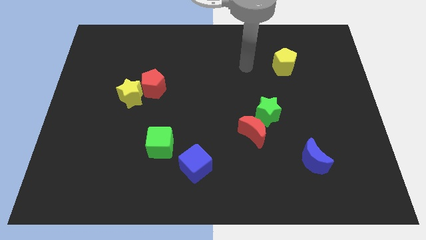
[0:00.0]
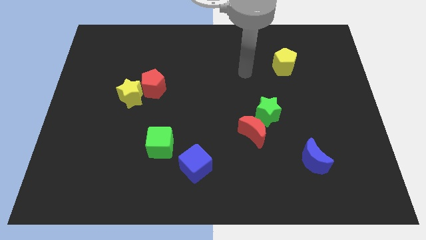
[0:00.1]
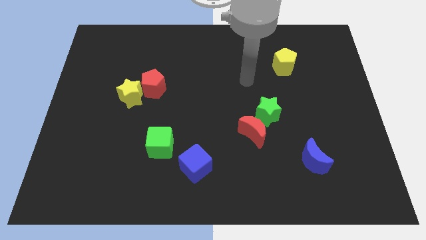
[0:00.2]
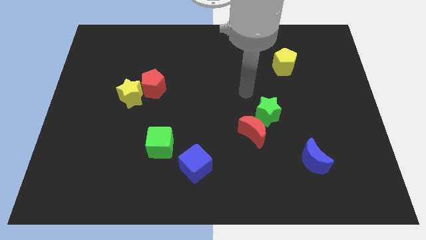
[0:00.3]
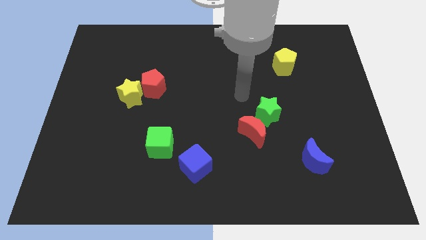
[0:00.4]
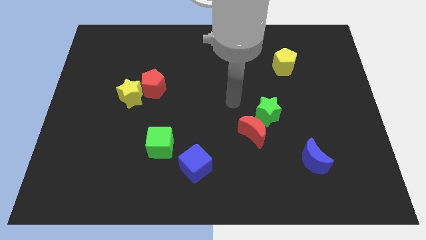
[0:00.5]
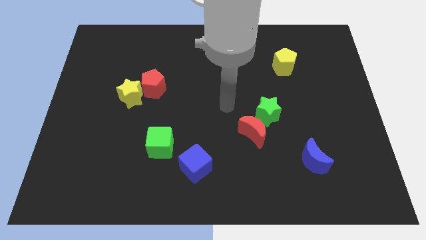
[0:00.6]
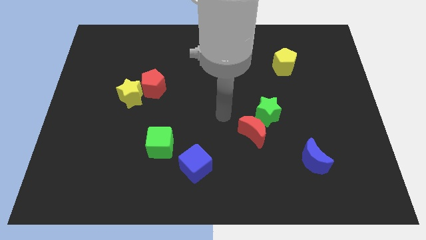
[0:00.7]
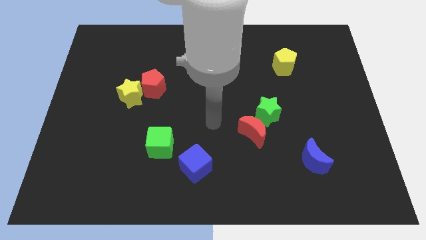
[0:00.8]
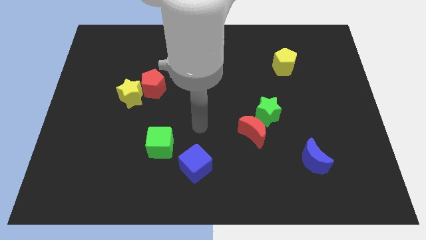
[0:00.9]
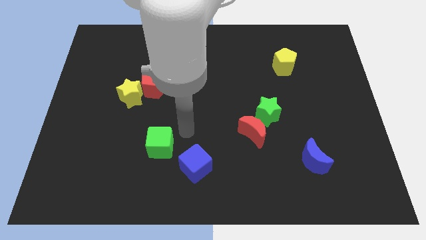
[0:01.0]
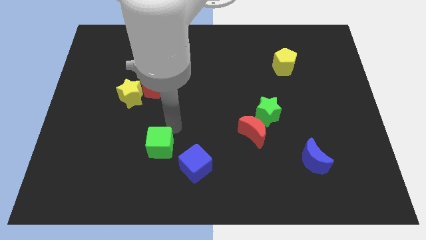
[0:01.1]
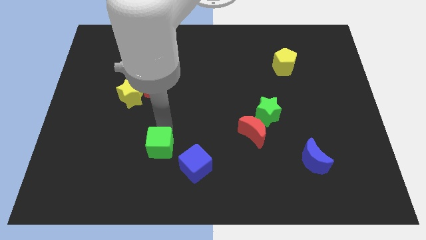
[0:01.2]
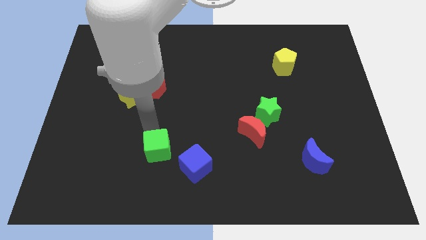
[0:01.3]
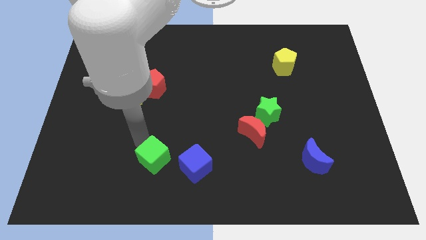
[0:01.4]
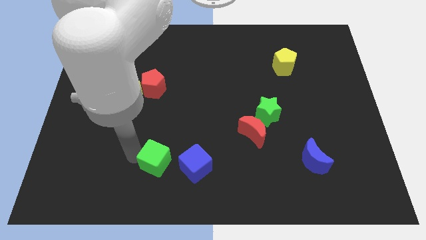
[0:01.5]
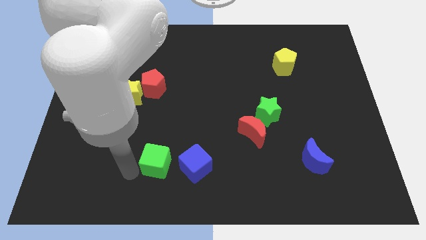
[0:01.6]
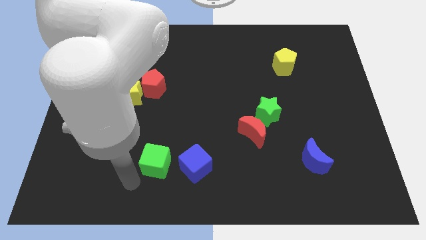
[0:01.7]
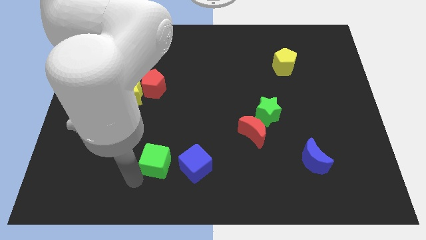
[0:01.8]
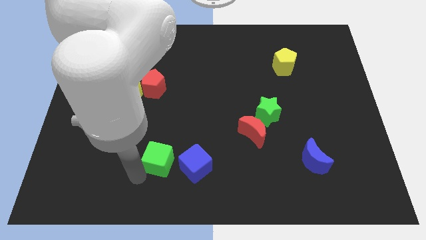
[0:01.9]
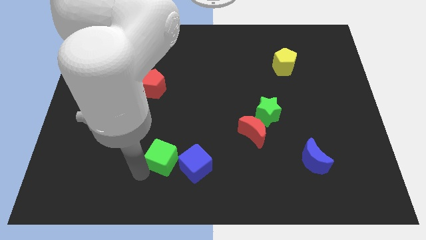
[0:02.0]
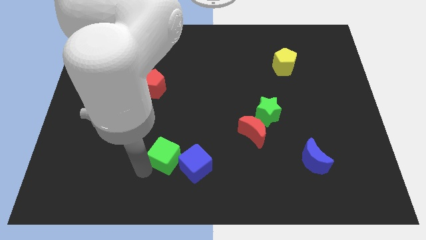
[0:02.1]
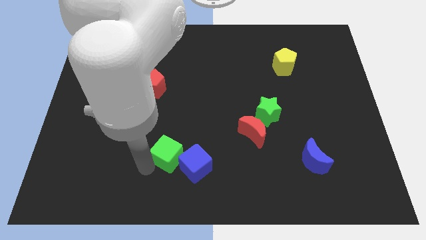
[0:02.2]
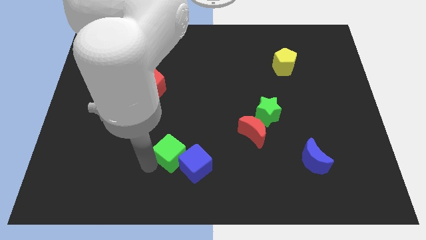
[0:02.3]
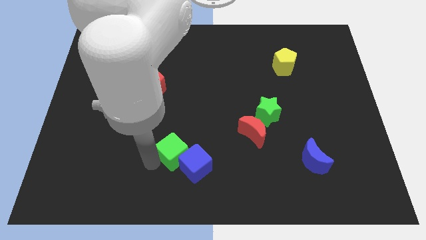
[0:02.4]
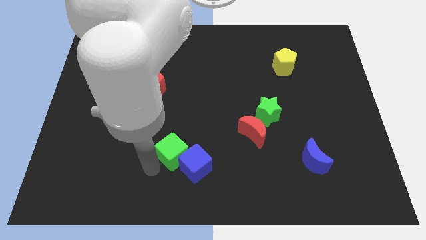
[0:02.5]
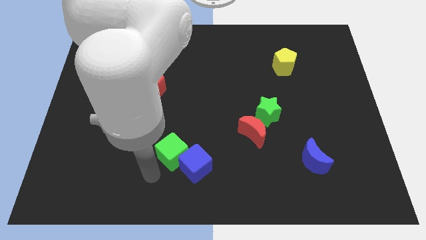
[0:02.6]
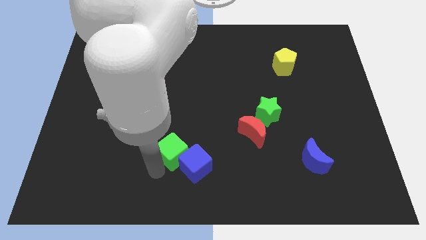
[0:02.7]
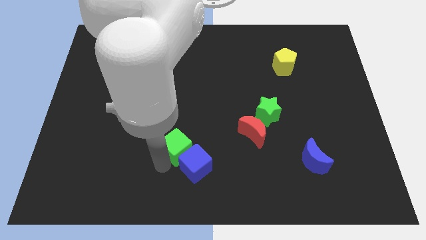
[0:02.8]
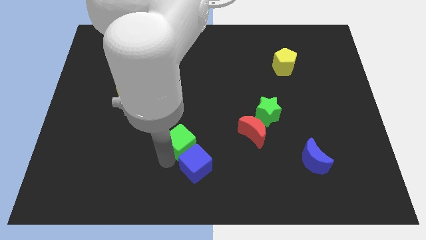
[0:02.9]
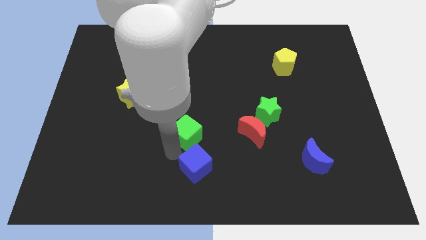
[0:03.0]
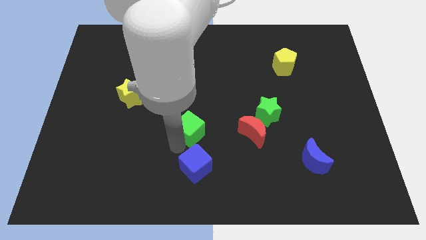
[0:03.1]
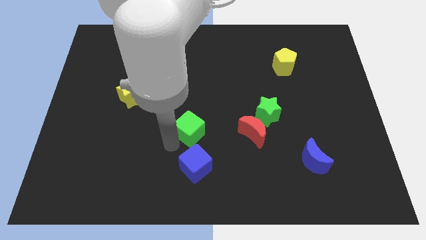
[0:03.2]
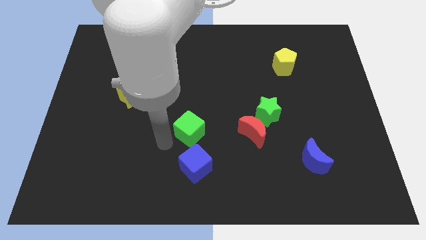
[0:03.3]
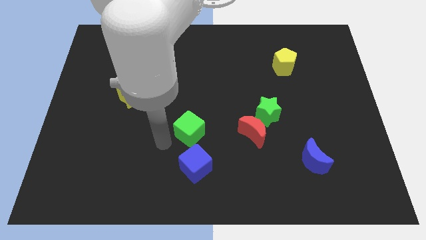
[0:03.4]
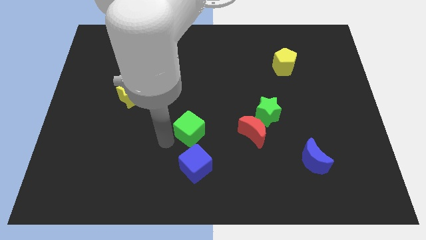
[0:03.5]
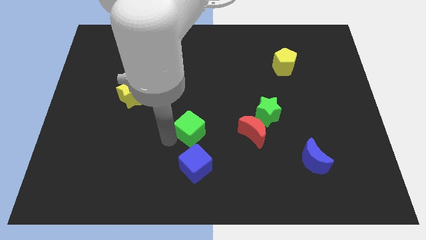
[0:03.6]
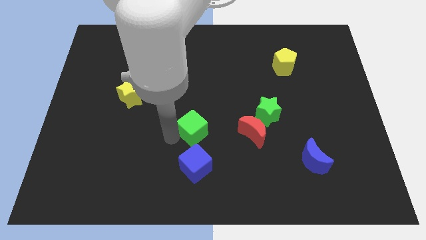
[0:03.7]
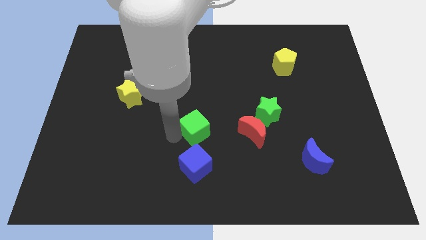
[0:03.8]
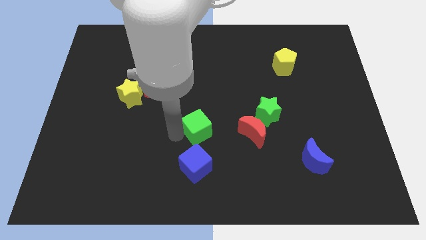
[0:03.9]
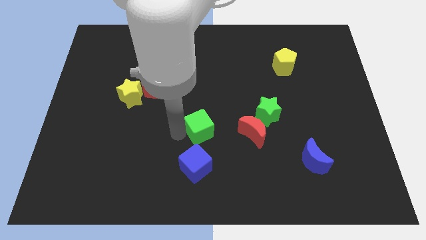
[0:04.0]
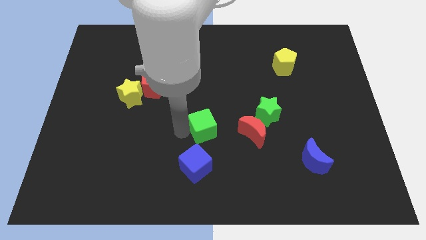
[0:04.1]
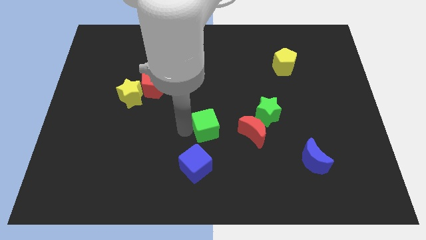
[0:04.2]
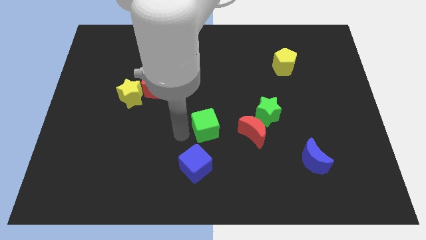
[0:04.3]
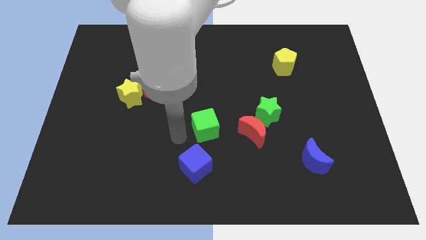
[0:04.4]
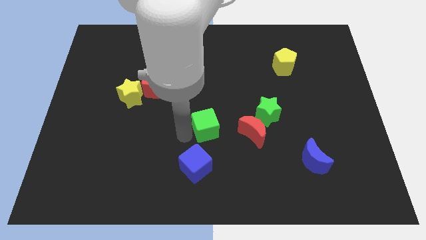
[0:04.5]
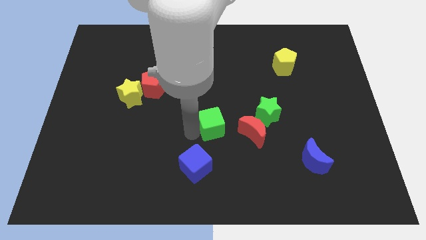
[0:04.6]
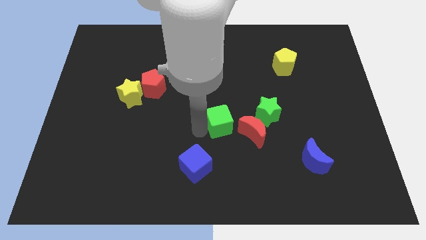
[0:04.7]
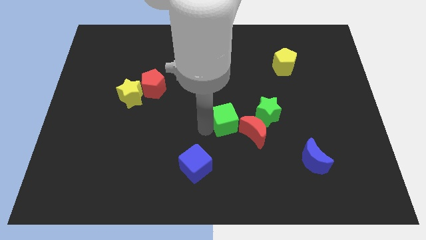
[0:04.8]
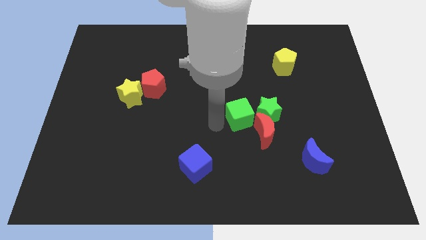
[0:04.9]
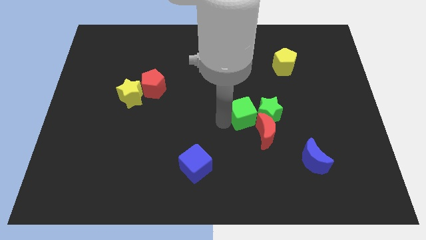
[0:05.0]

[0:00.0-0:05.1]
put the green cube close to the green star

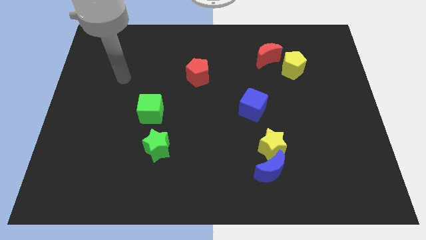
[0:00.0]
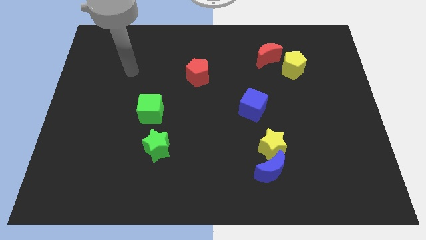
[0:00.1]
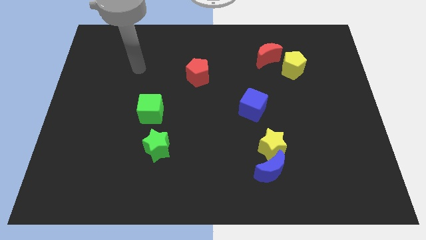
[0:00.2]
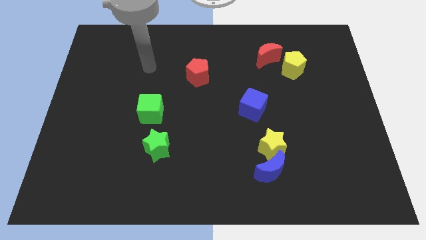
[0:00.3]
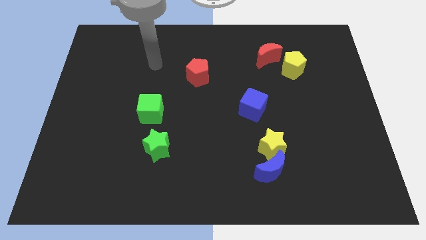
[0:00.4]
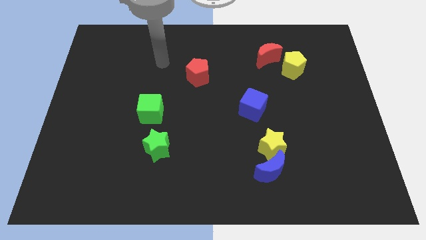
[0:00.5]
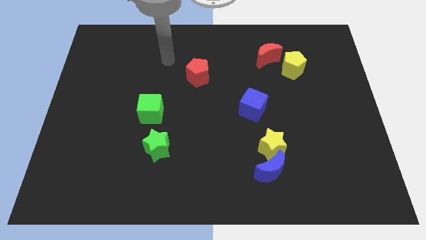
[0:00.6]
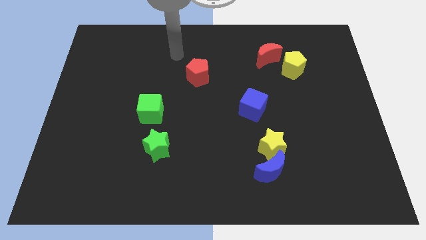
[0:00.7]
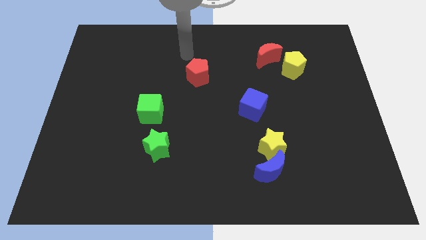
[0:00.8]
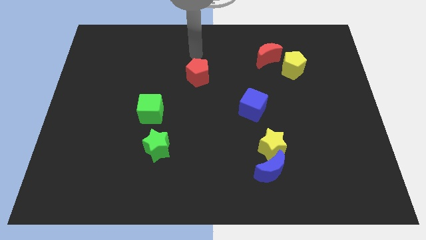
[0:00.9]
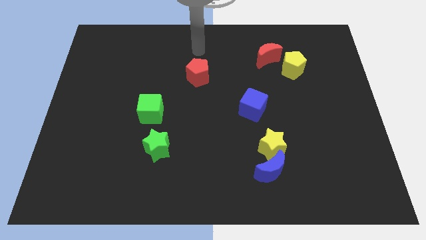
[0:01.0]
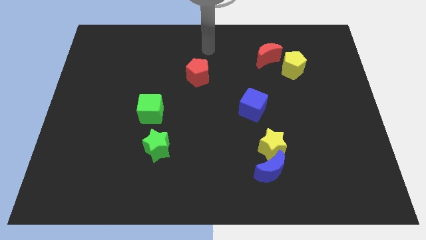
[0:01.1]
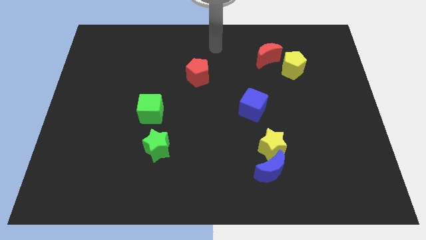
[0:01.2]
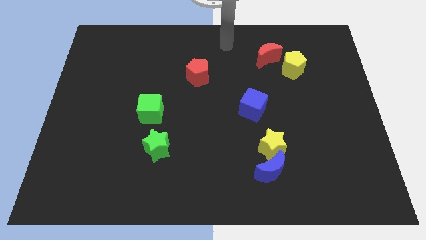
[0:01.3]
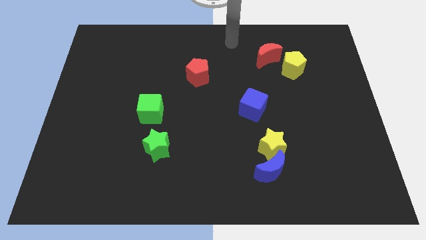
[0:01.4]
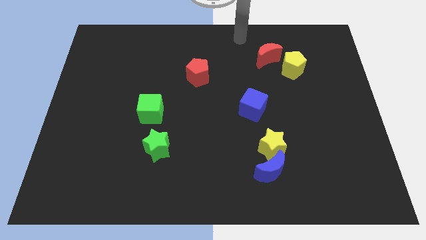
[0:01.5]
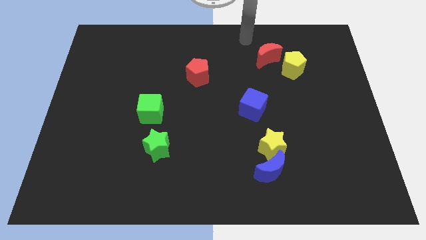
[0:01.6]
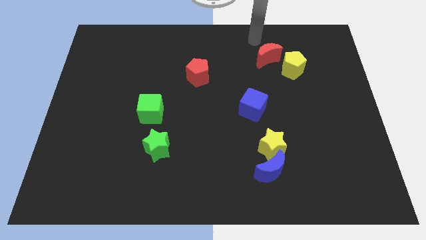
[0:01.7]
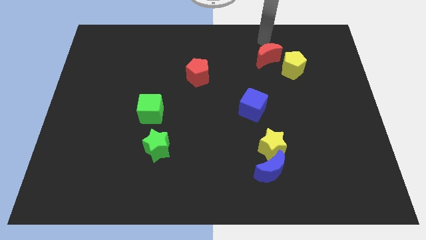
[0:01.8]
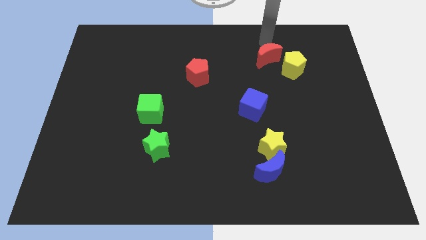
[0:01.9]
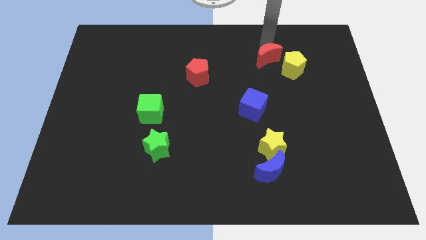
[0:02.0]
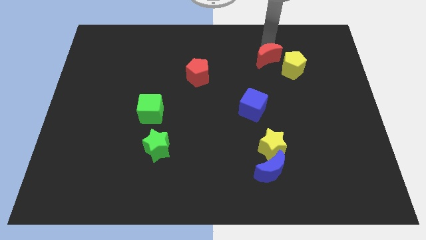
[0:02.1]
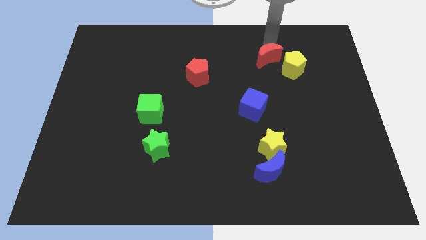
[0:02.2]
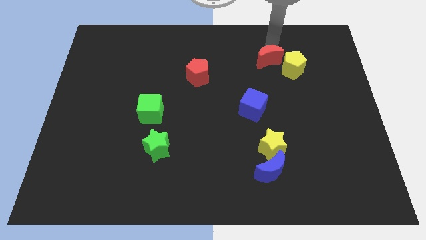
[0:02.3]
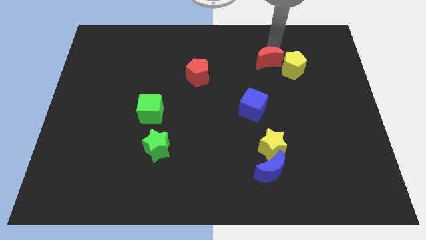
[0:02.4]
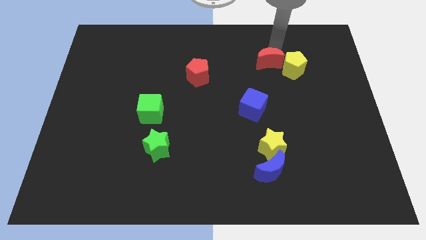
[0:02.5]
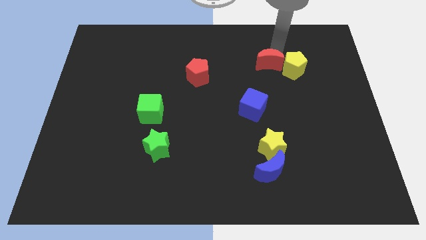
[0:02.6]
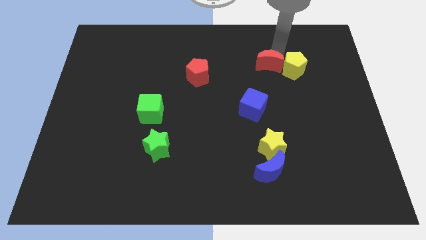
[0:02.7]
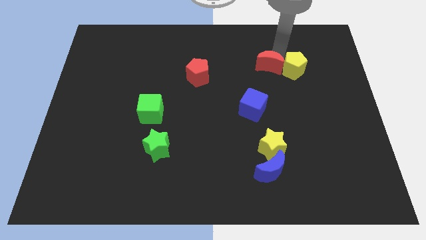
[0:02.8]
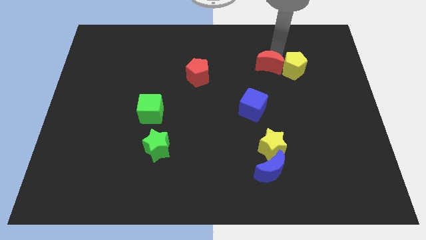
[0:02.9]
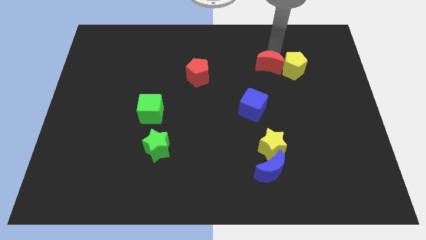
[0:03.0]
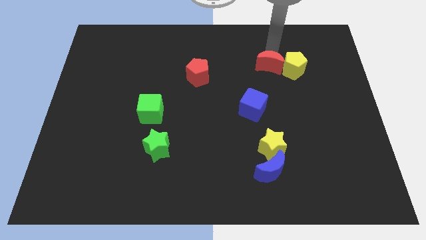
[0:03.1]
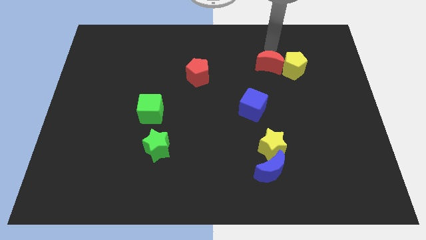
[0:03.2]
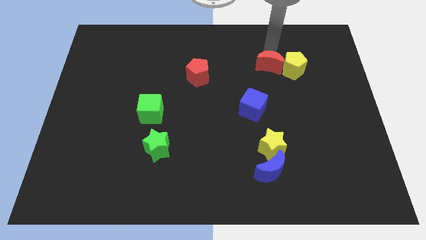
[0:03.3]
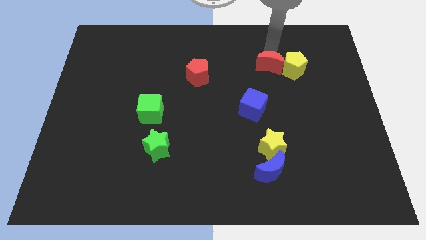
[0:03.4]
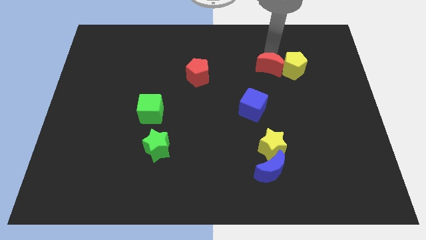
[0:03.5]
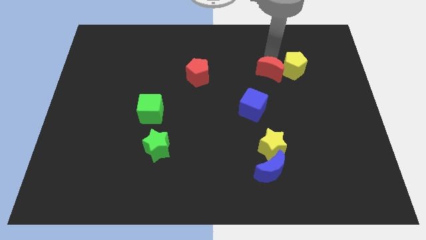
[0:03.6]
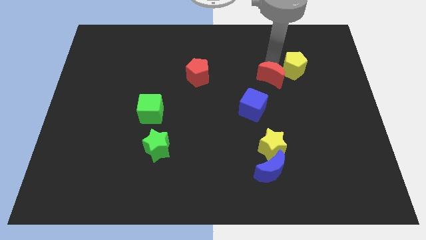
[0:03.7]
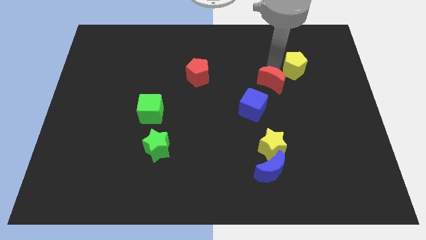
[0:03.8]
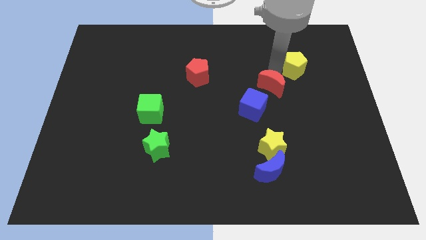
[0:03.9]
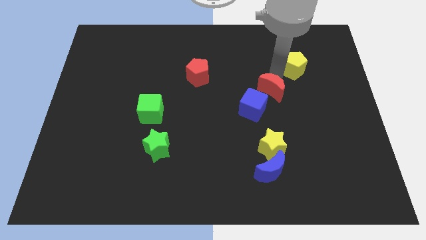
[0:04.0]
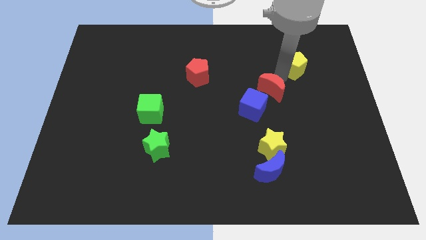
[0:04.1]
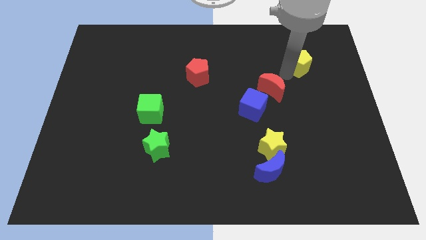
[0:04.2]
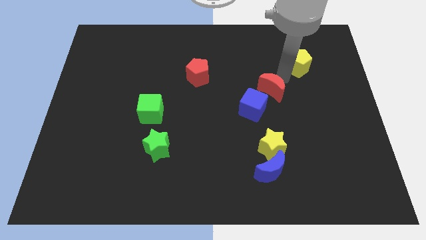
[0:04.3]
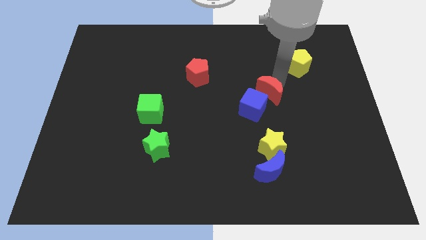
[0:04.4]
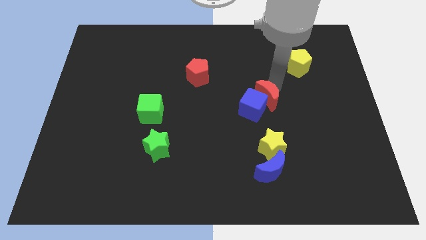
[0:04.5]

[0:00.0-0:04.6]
move the red moon to the blue cube
